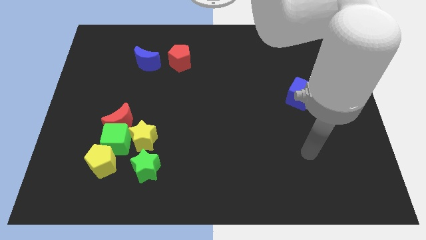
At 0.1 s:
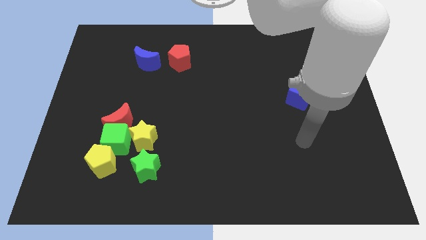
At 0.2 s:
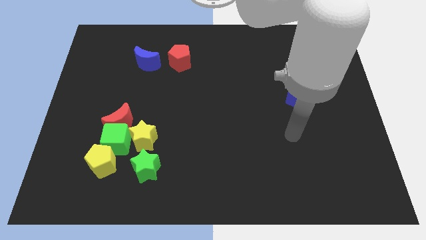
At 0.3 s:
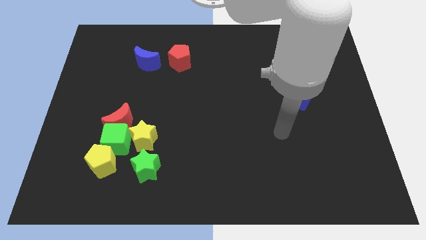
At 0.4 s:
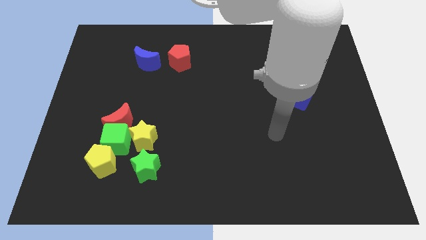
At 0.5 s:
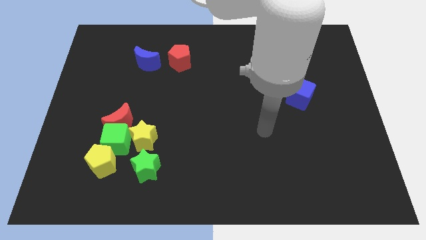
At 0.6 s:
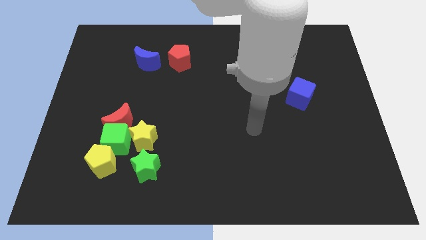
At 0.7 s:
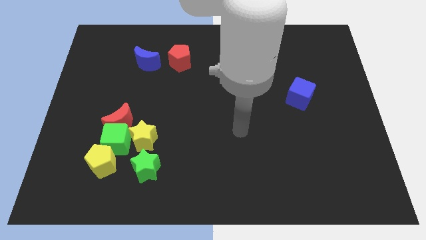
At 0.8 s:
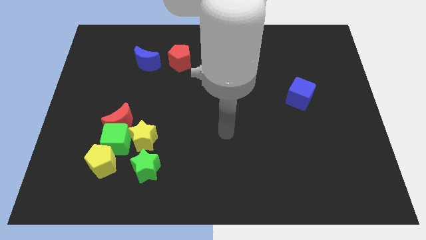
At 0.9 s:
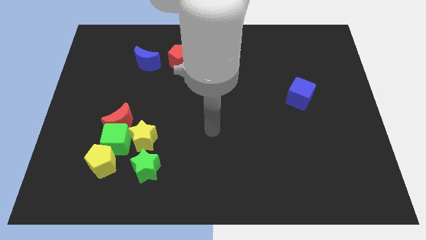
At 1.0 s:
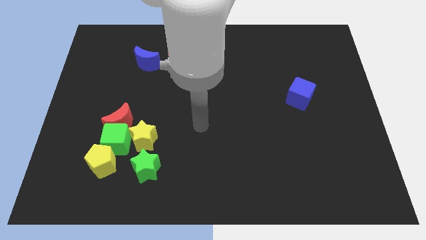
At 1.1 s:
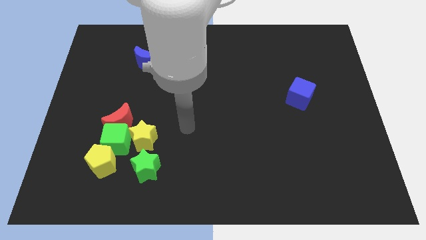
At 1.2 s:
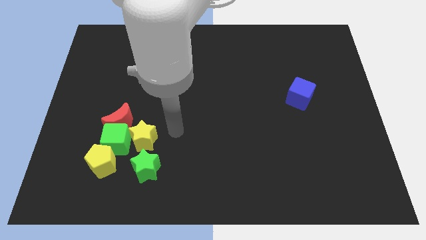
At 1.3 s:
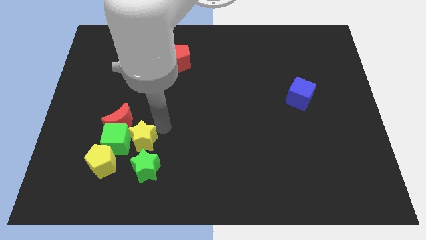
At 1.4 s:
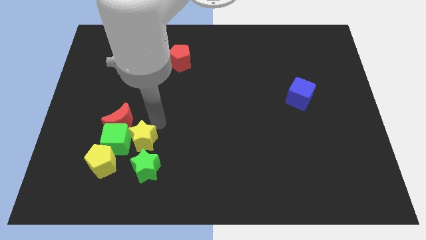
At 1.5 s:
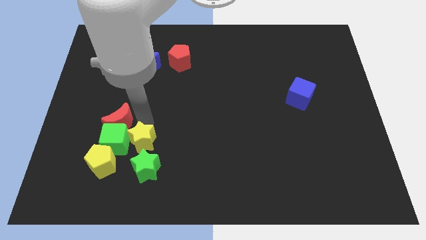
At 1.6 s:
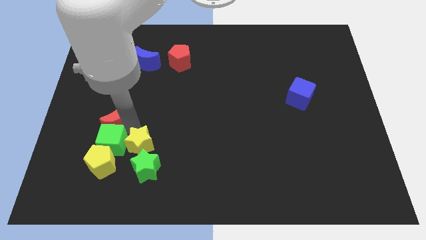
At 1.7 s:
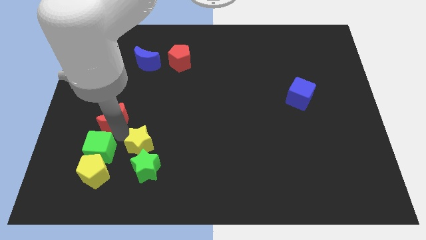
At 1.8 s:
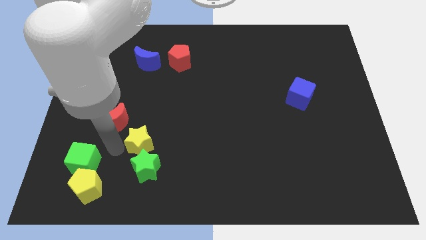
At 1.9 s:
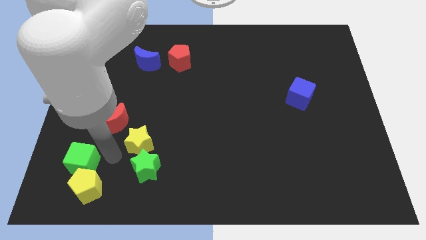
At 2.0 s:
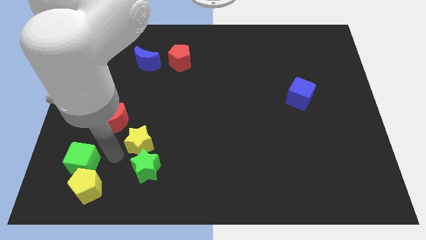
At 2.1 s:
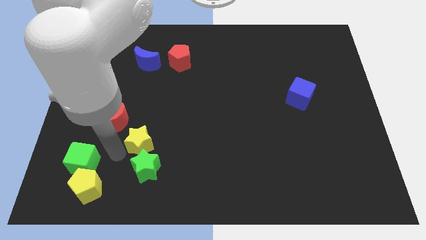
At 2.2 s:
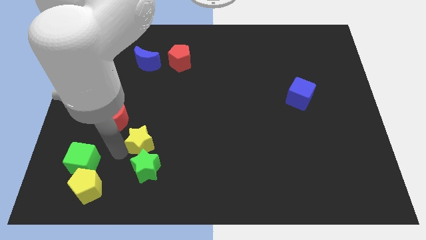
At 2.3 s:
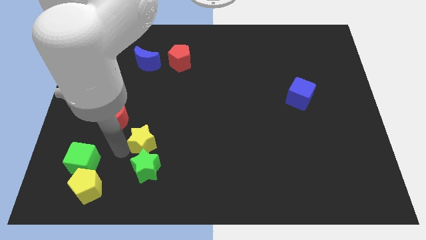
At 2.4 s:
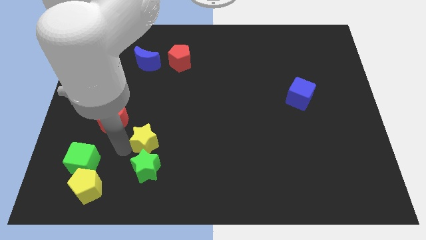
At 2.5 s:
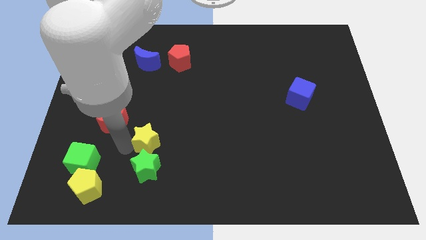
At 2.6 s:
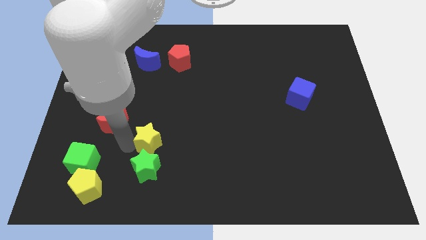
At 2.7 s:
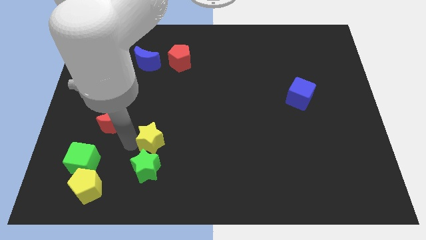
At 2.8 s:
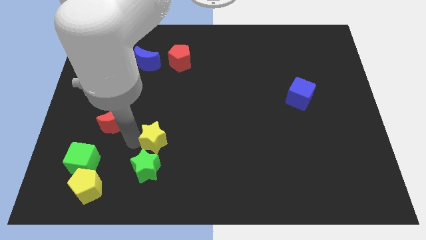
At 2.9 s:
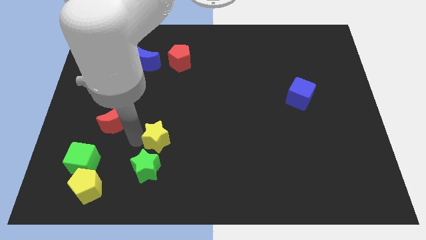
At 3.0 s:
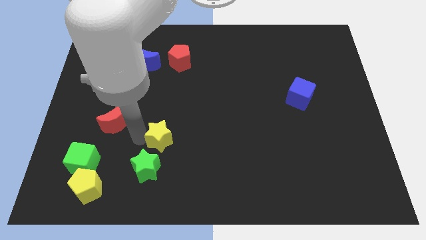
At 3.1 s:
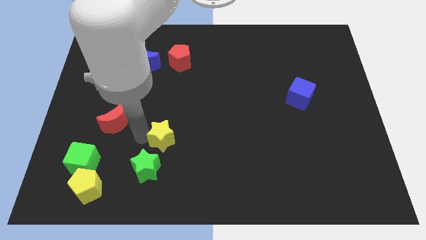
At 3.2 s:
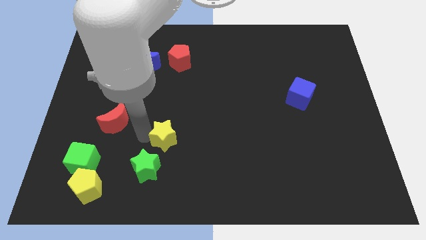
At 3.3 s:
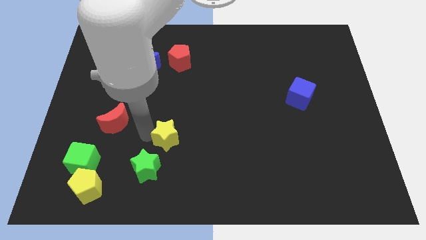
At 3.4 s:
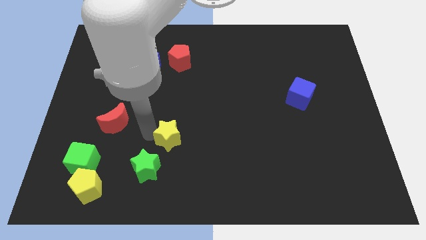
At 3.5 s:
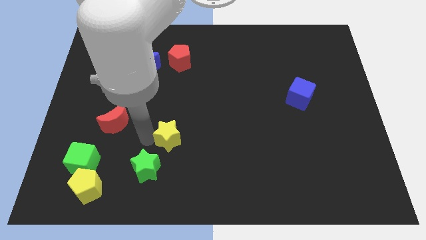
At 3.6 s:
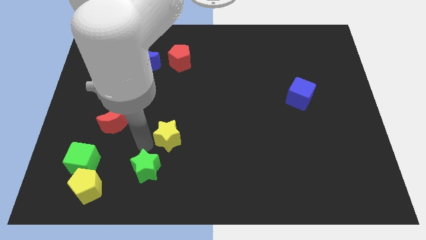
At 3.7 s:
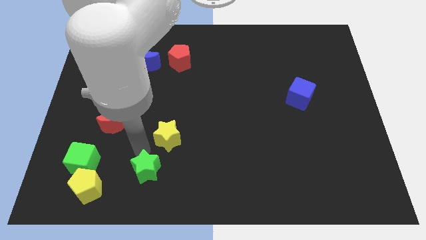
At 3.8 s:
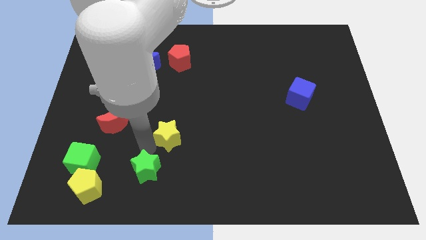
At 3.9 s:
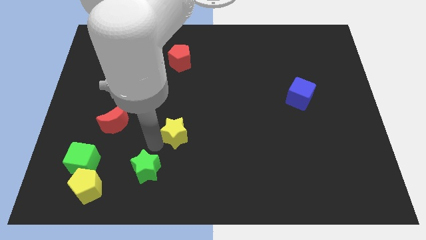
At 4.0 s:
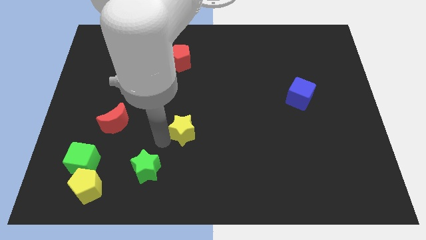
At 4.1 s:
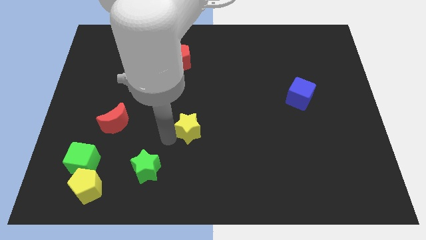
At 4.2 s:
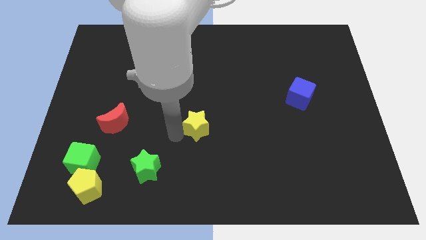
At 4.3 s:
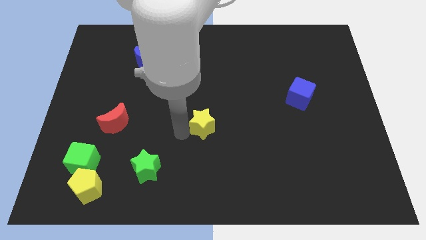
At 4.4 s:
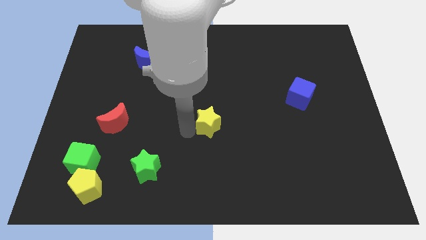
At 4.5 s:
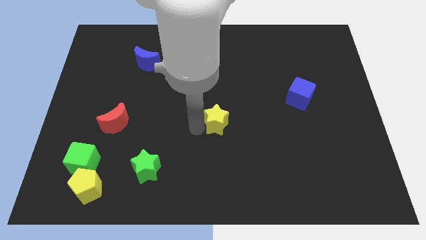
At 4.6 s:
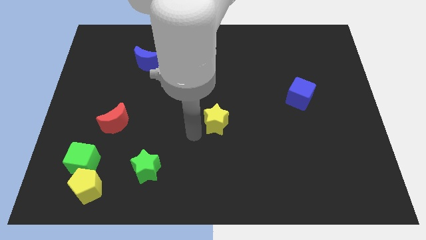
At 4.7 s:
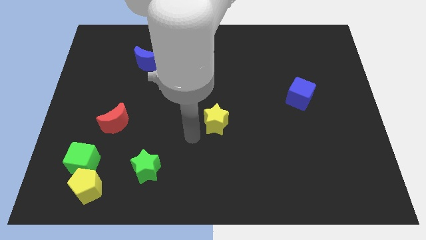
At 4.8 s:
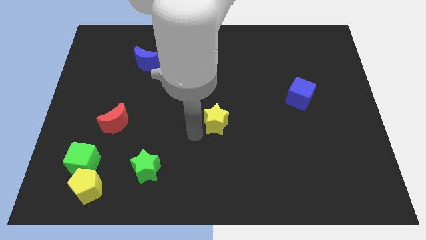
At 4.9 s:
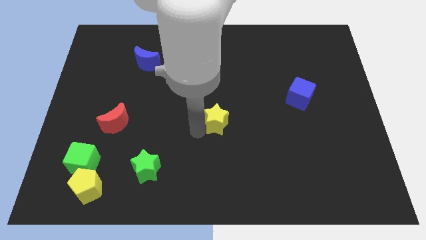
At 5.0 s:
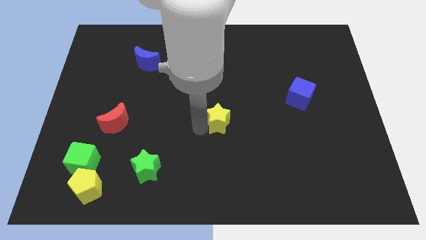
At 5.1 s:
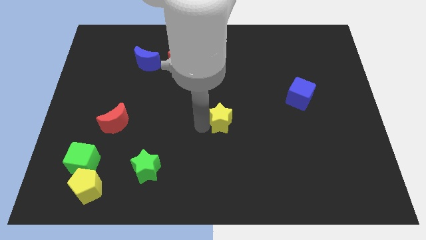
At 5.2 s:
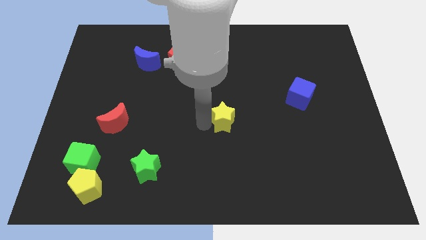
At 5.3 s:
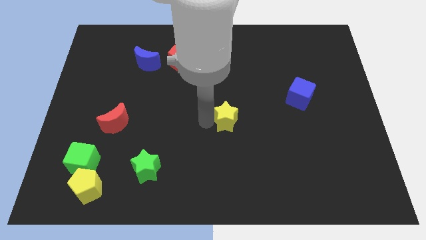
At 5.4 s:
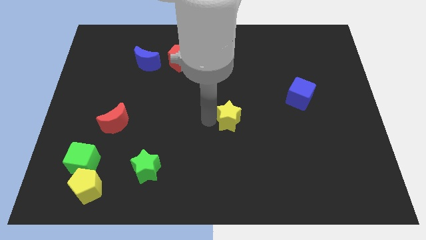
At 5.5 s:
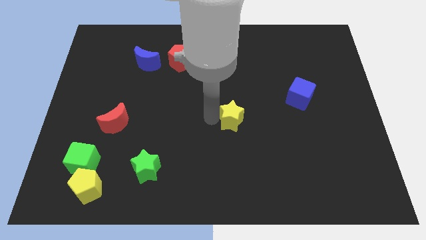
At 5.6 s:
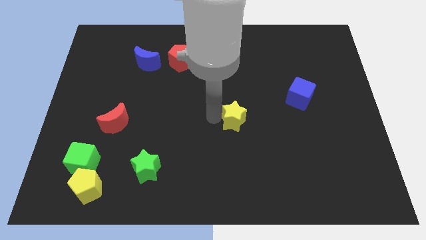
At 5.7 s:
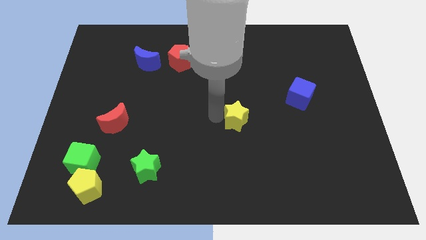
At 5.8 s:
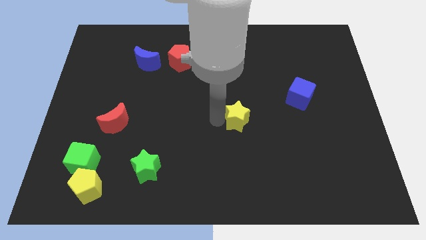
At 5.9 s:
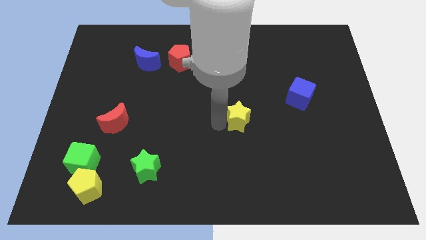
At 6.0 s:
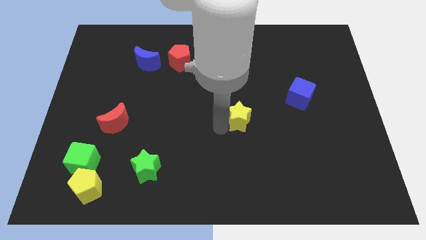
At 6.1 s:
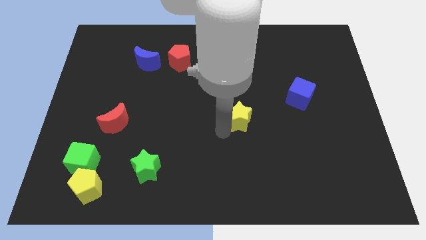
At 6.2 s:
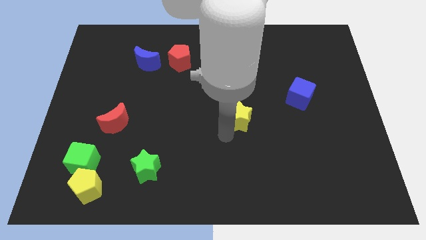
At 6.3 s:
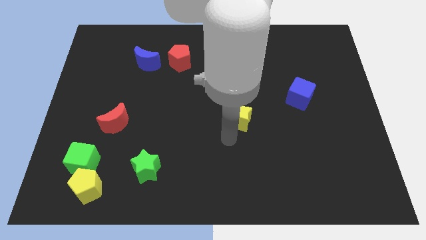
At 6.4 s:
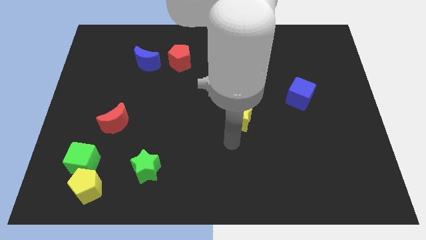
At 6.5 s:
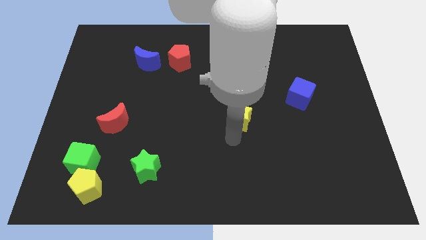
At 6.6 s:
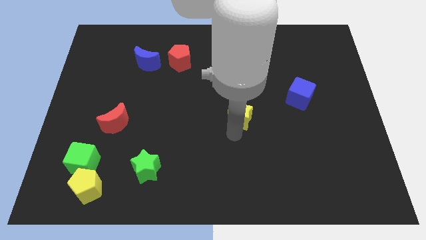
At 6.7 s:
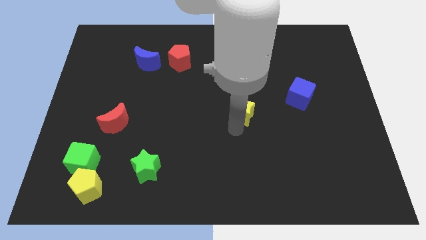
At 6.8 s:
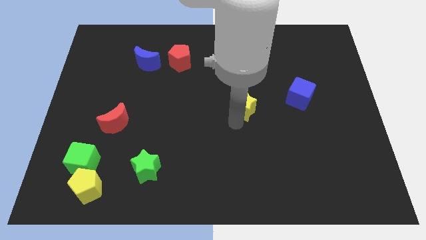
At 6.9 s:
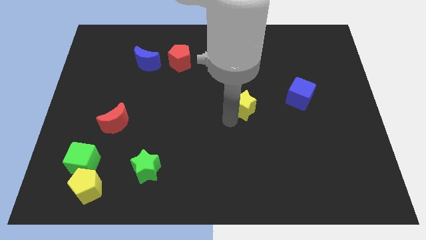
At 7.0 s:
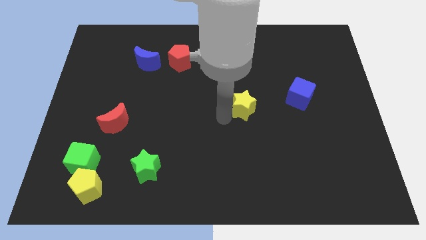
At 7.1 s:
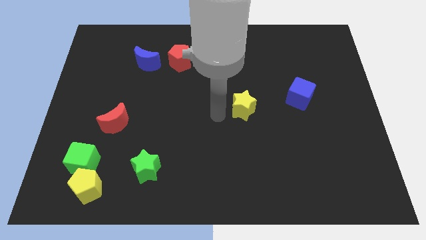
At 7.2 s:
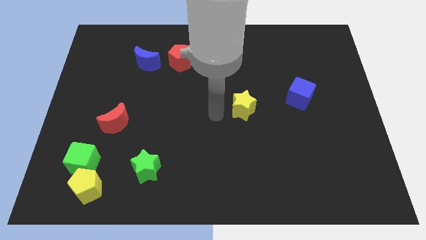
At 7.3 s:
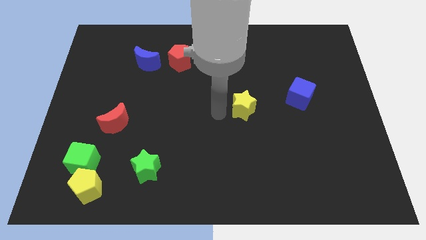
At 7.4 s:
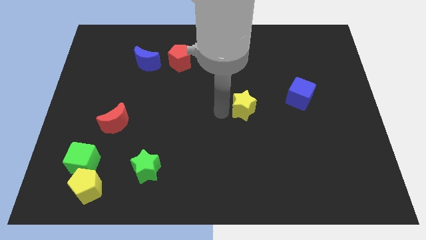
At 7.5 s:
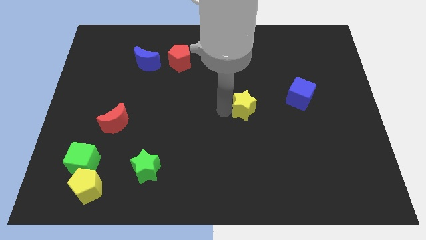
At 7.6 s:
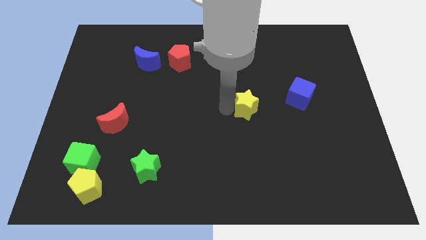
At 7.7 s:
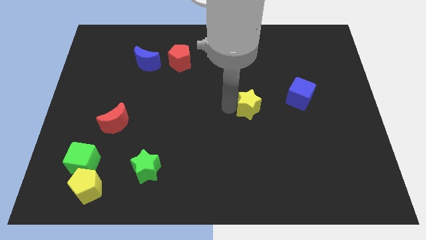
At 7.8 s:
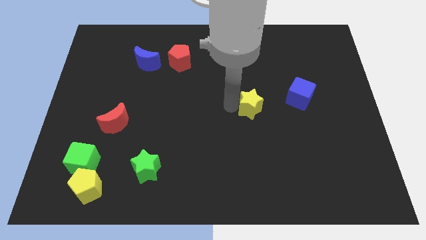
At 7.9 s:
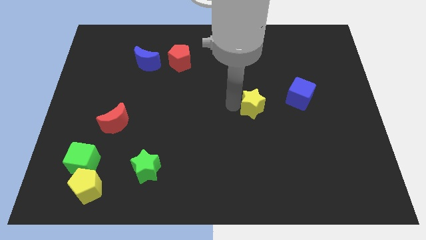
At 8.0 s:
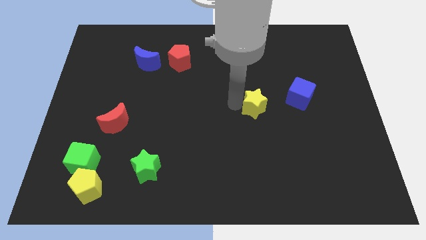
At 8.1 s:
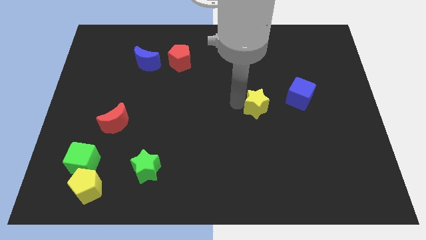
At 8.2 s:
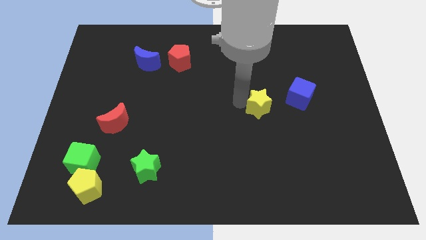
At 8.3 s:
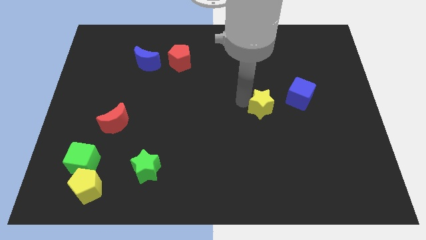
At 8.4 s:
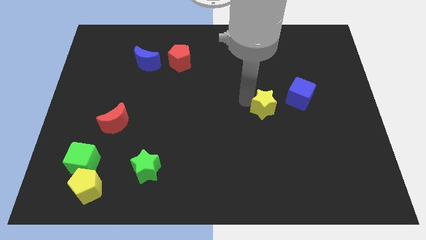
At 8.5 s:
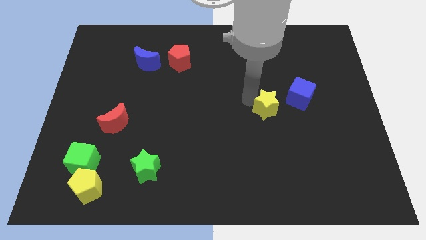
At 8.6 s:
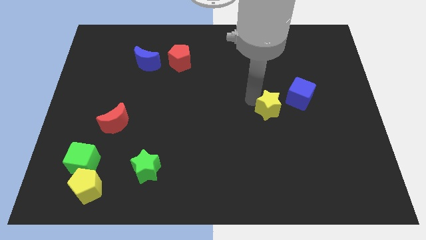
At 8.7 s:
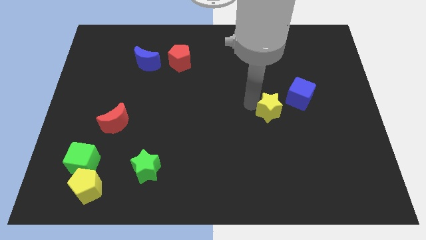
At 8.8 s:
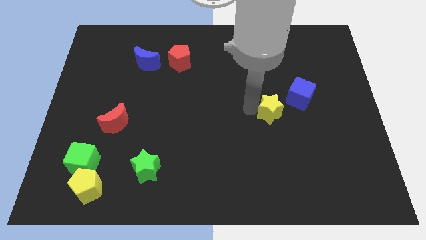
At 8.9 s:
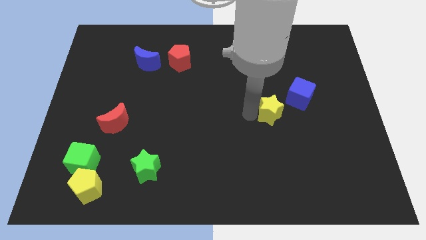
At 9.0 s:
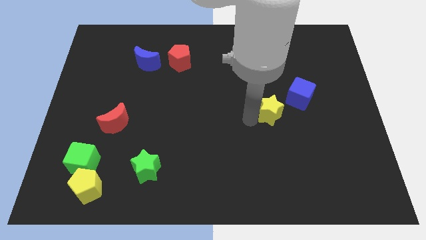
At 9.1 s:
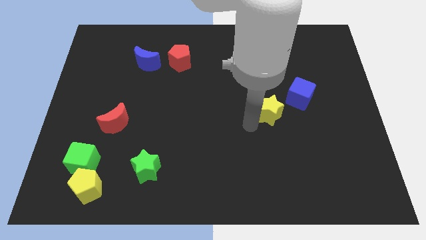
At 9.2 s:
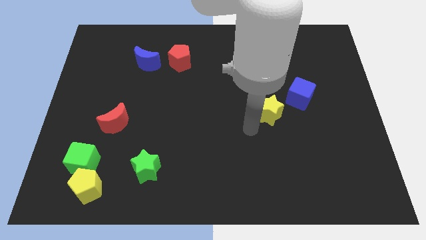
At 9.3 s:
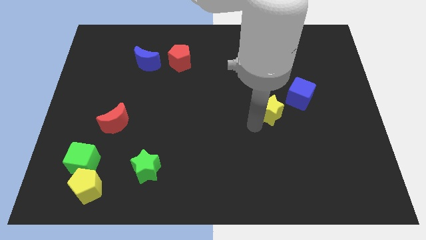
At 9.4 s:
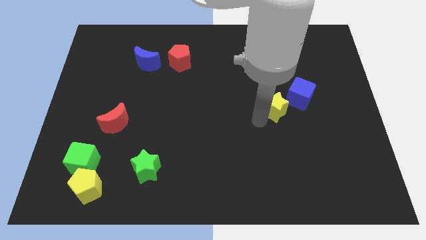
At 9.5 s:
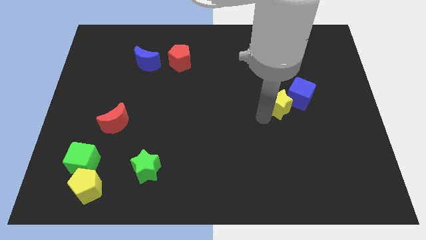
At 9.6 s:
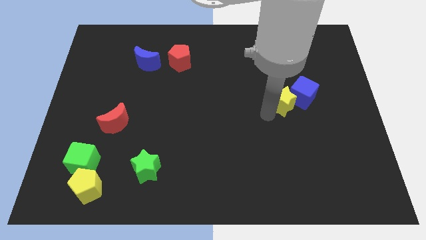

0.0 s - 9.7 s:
slide the yellow star close to the blue cube
